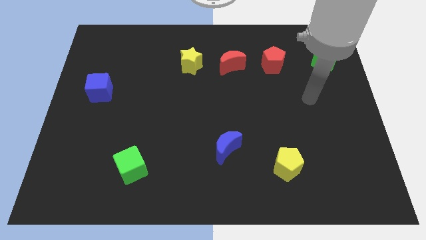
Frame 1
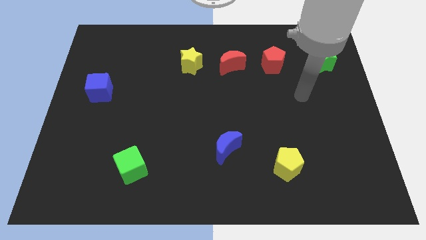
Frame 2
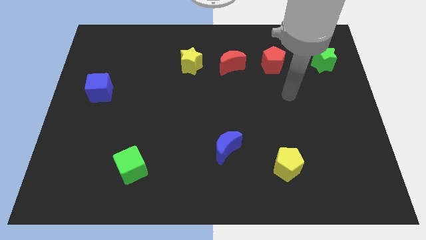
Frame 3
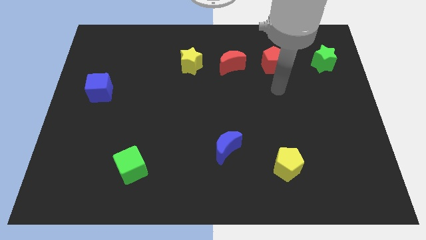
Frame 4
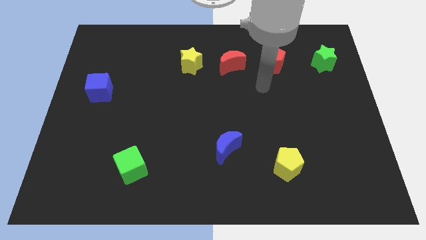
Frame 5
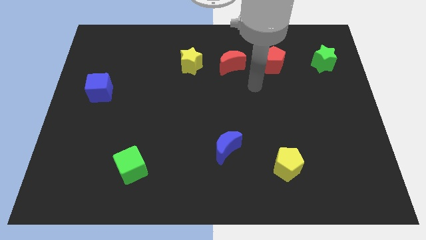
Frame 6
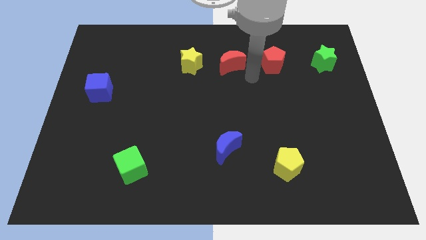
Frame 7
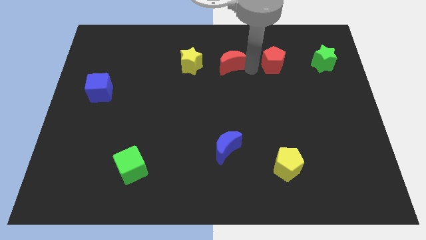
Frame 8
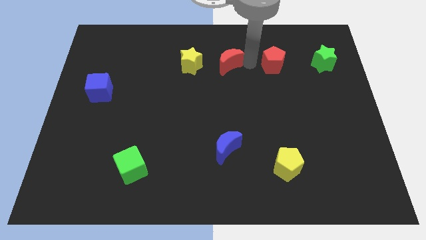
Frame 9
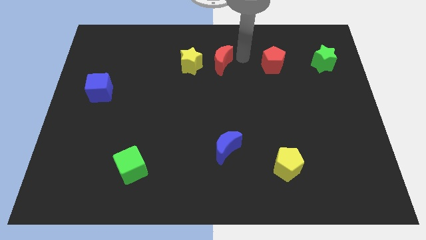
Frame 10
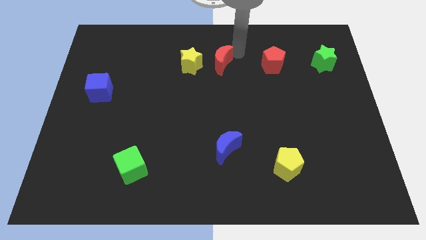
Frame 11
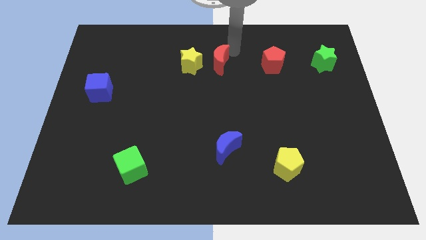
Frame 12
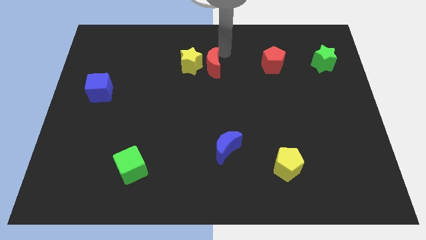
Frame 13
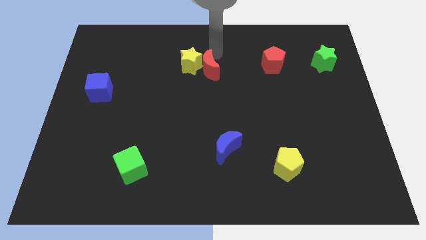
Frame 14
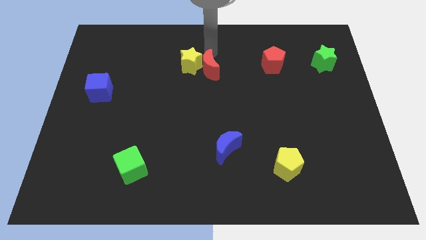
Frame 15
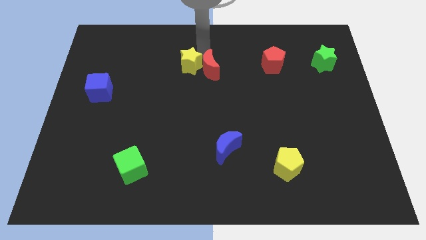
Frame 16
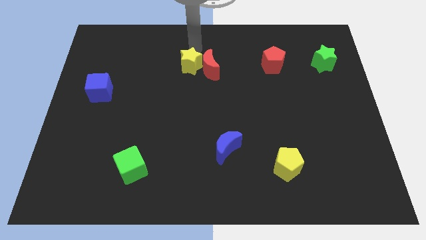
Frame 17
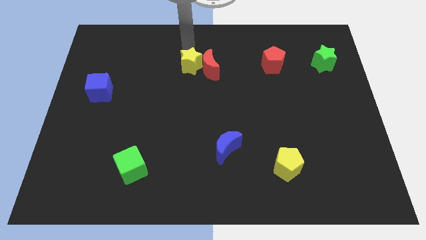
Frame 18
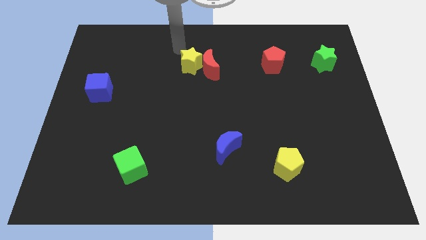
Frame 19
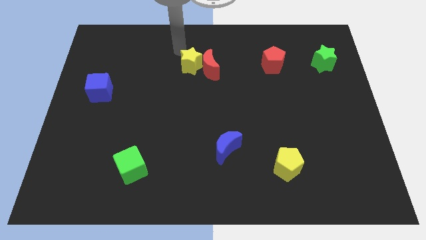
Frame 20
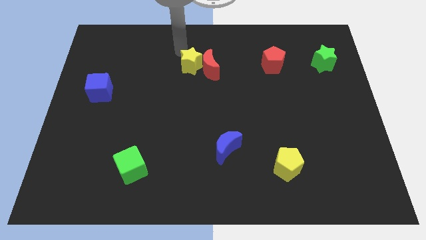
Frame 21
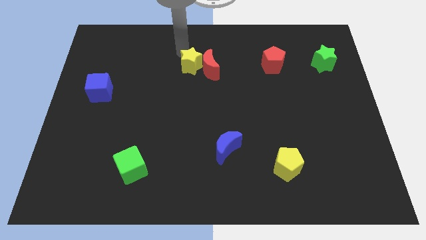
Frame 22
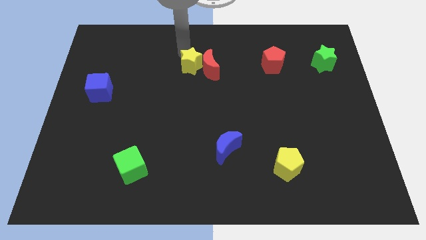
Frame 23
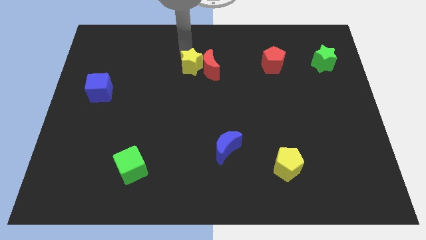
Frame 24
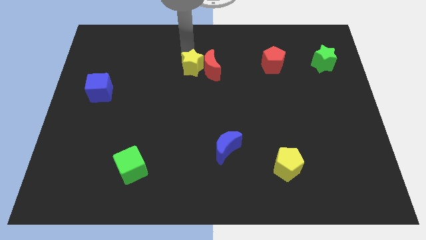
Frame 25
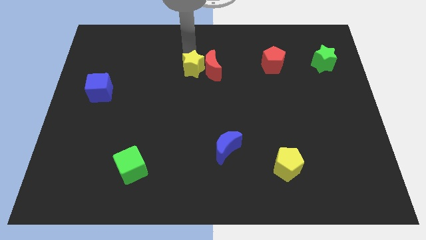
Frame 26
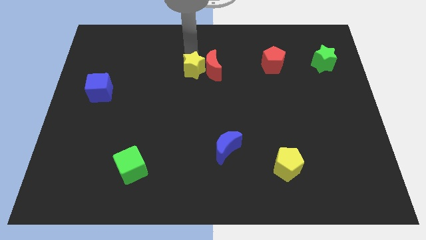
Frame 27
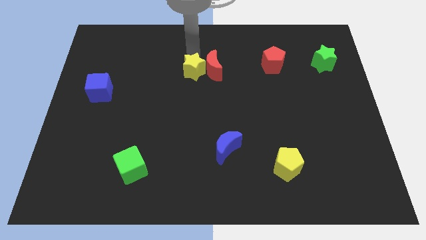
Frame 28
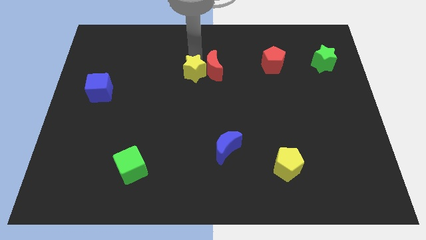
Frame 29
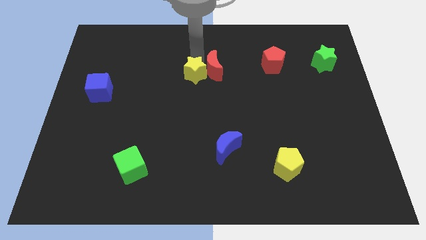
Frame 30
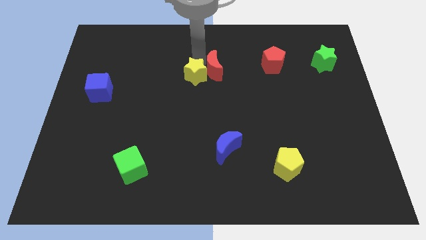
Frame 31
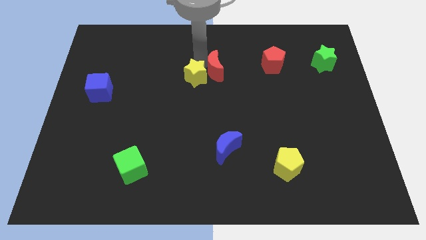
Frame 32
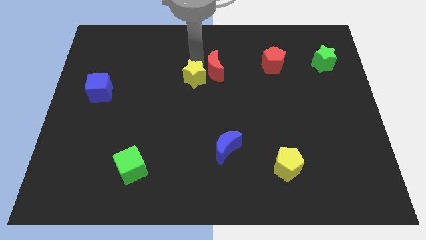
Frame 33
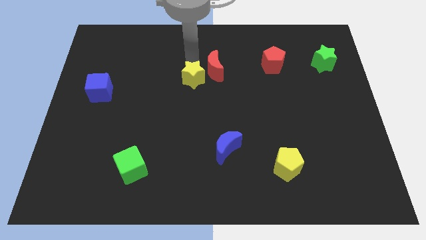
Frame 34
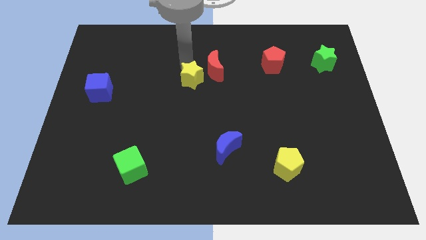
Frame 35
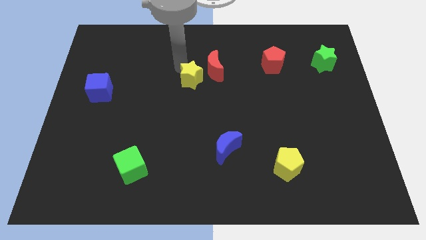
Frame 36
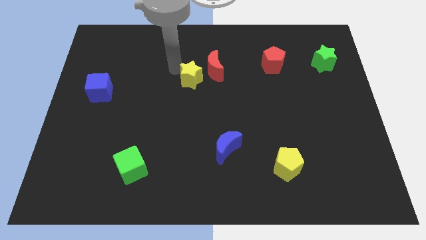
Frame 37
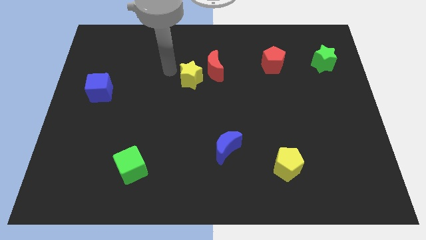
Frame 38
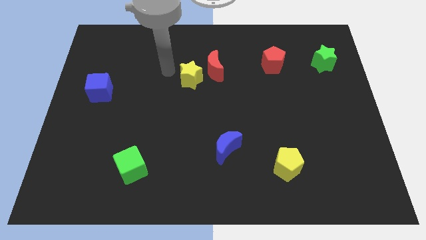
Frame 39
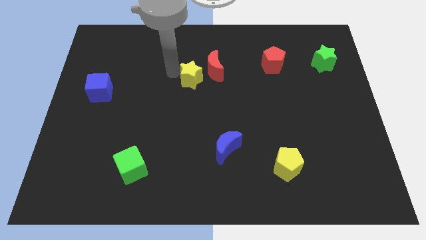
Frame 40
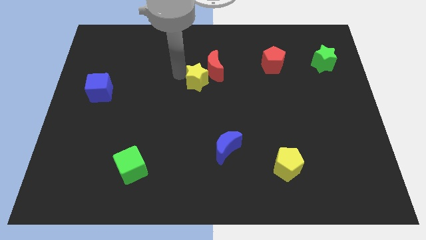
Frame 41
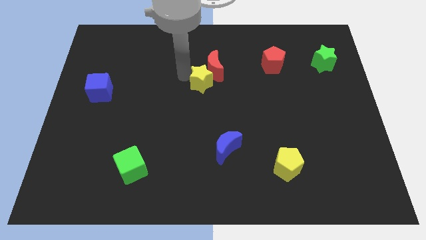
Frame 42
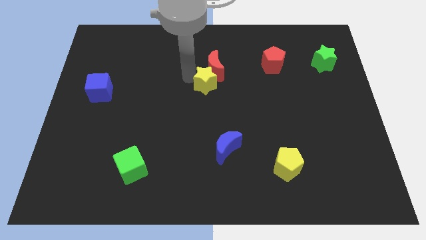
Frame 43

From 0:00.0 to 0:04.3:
move the yellow star downwards and right diagonally a bit

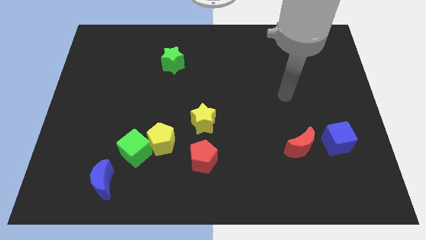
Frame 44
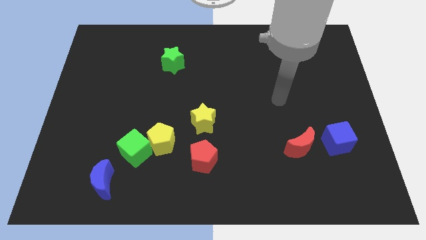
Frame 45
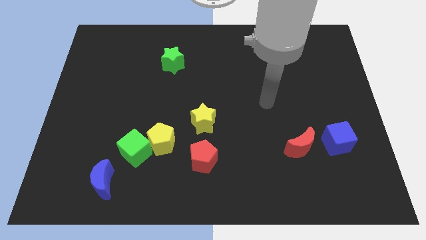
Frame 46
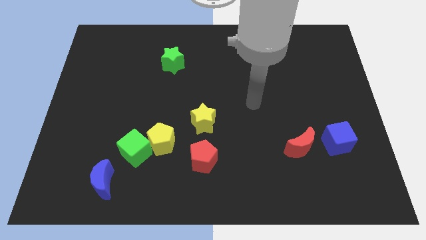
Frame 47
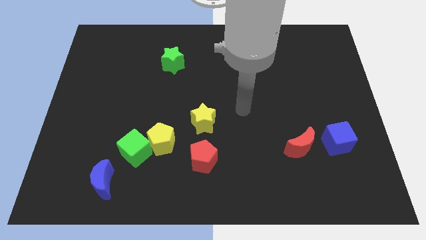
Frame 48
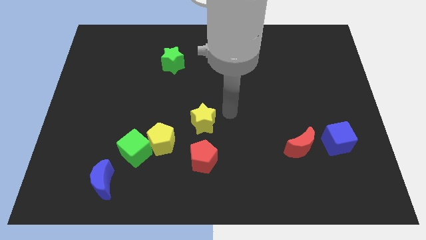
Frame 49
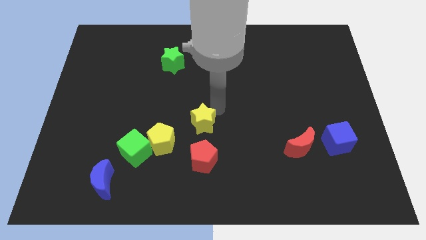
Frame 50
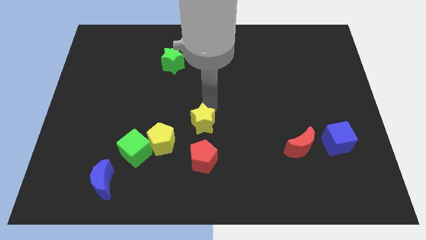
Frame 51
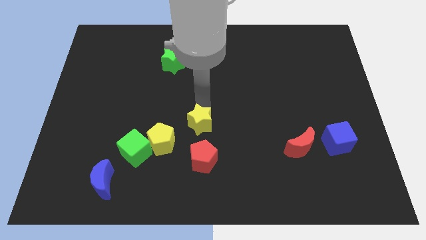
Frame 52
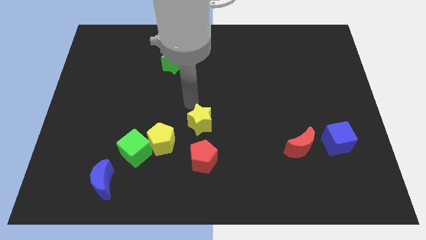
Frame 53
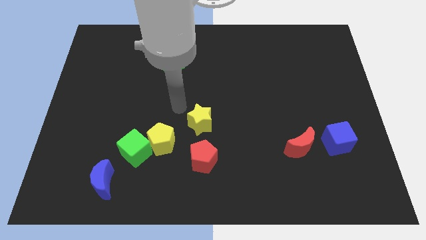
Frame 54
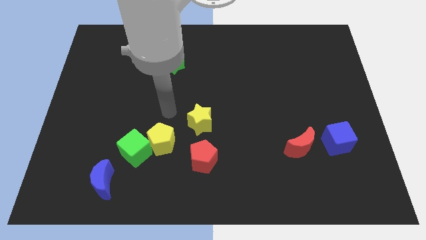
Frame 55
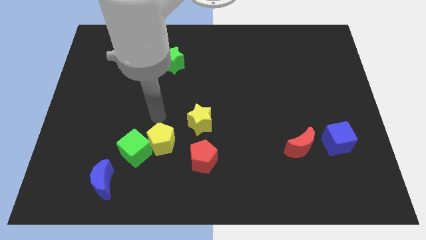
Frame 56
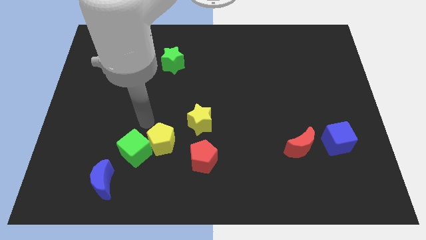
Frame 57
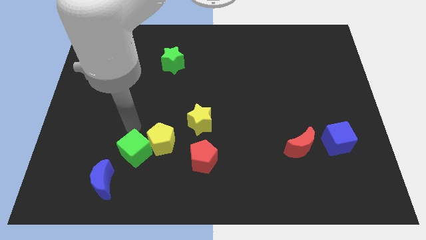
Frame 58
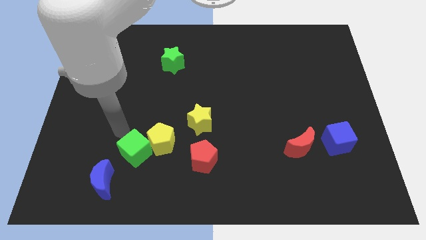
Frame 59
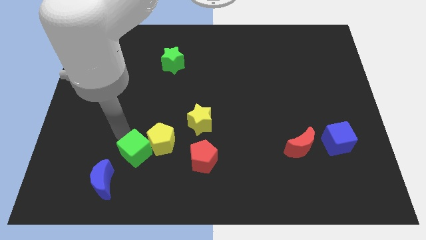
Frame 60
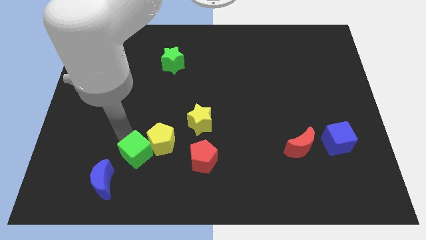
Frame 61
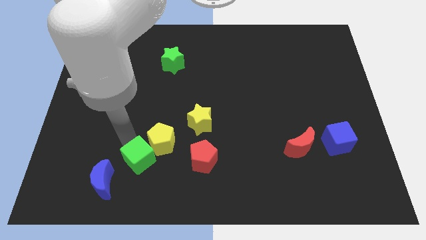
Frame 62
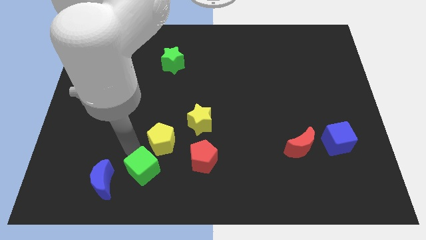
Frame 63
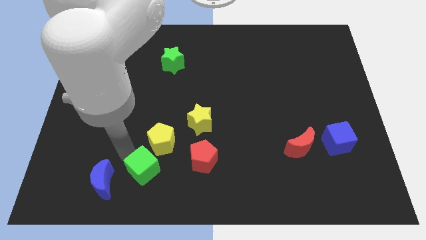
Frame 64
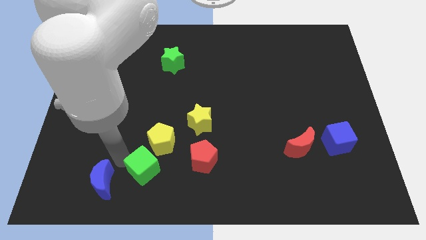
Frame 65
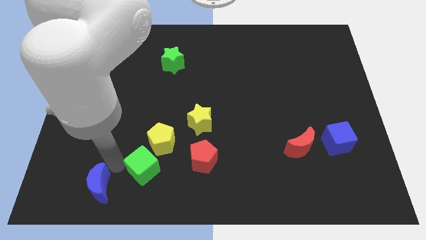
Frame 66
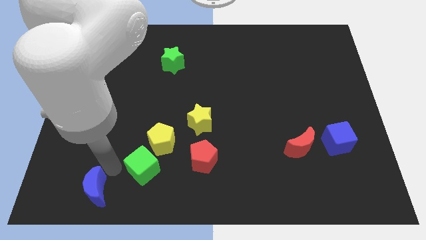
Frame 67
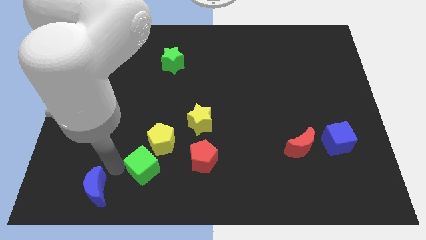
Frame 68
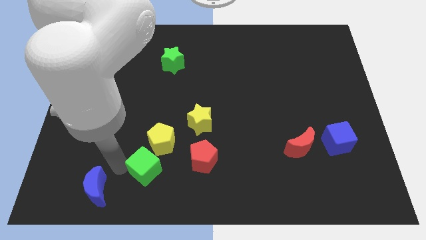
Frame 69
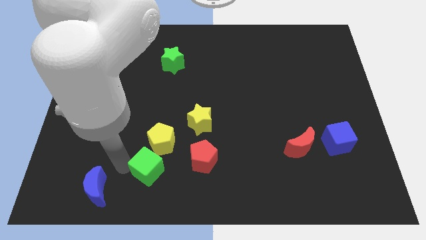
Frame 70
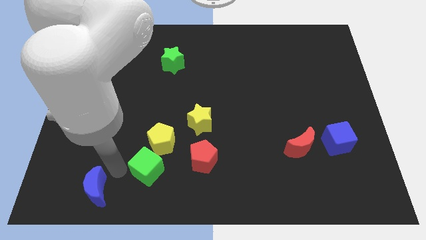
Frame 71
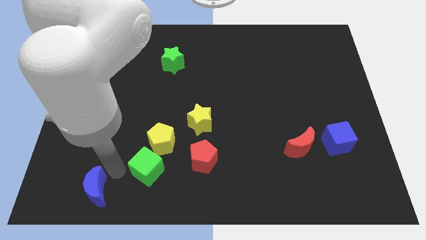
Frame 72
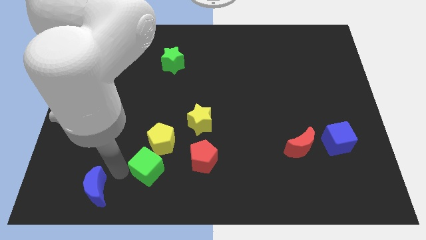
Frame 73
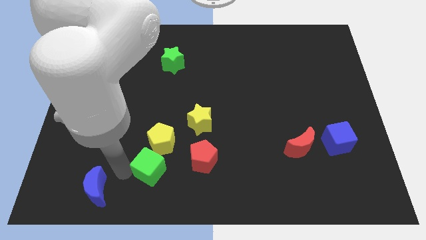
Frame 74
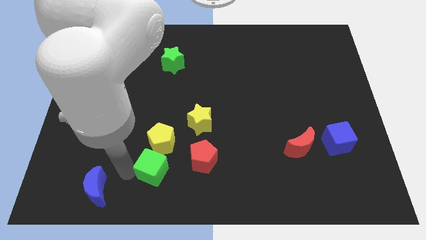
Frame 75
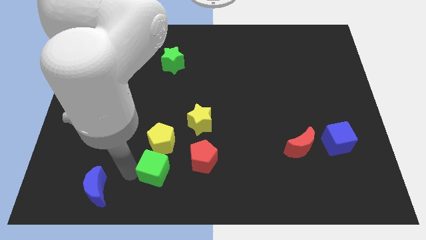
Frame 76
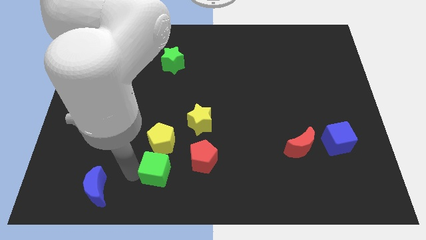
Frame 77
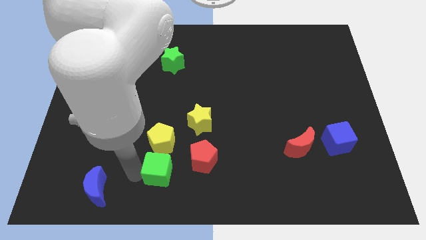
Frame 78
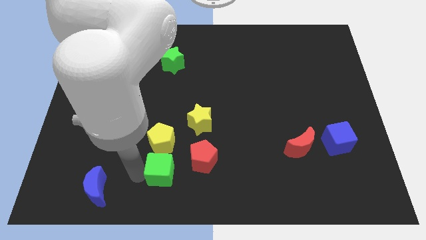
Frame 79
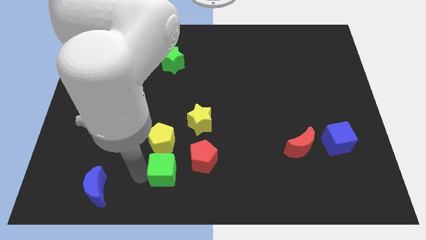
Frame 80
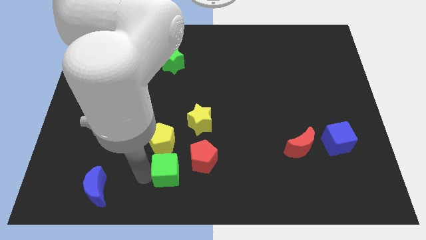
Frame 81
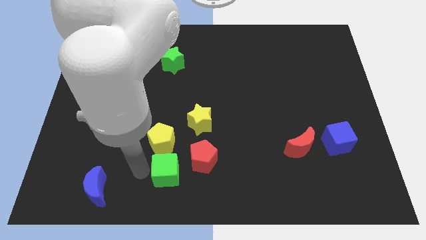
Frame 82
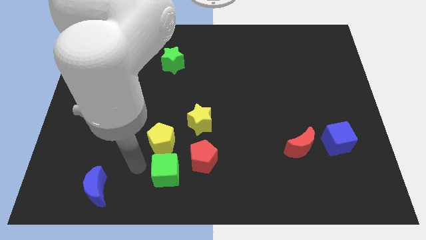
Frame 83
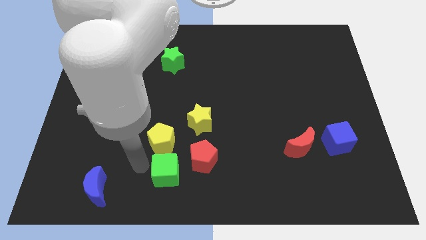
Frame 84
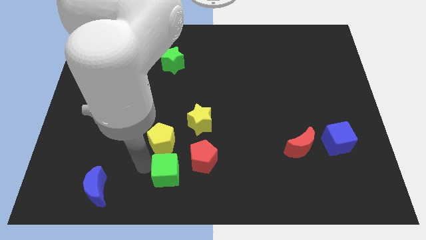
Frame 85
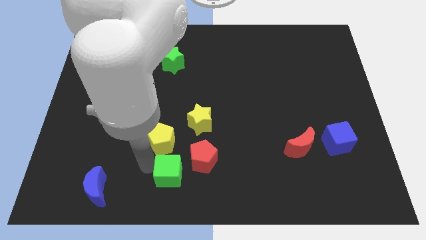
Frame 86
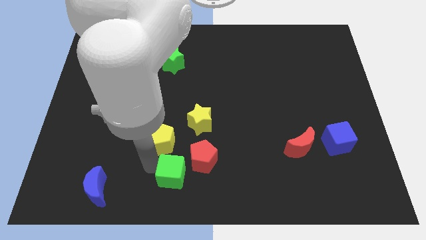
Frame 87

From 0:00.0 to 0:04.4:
slightly push the green cube to the right
